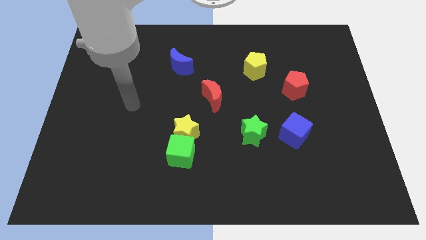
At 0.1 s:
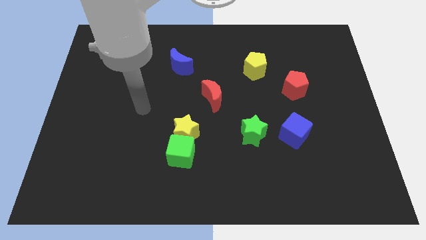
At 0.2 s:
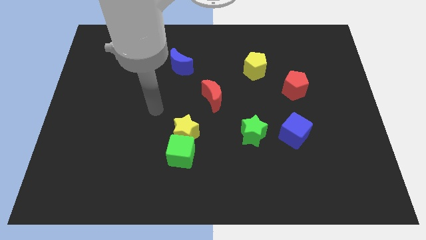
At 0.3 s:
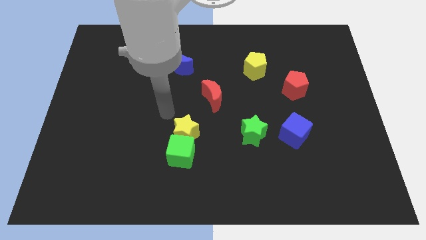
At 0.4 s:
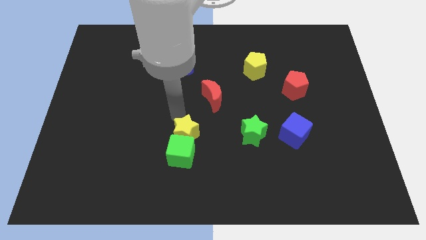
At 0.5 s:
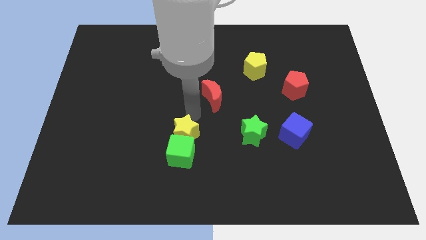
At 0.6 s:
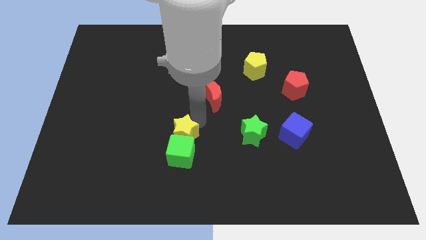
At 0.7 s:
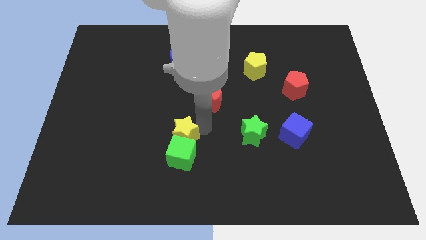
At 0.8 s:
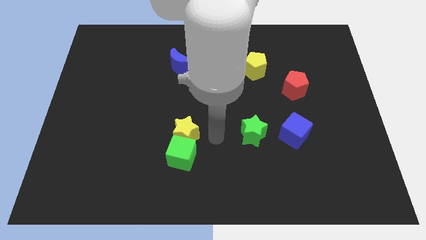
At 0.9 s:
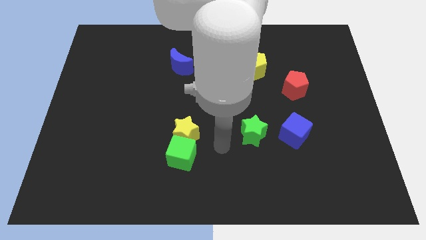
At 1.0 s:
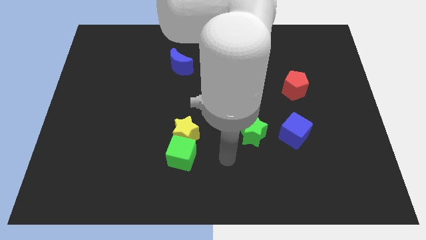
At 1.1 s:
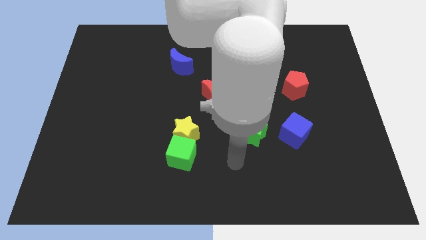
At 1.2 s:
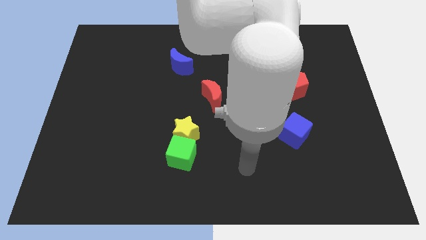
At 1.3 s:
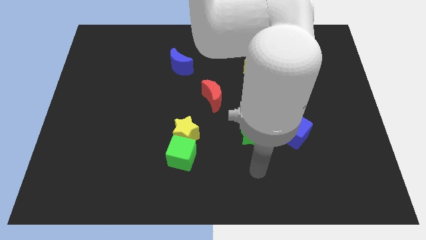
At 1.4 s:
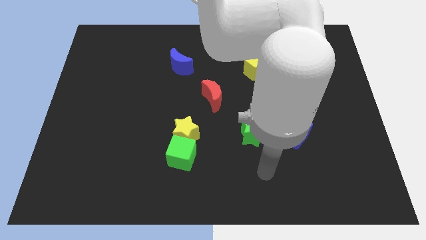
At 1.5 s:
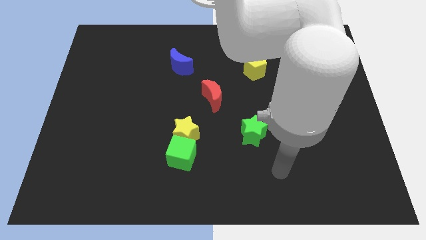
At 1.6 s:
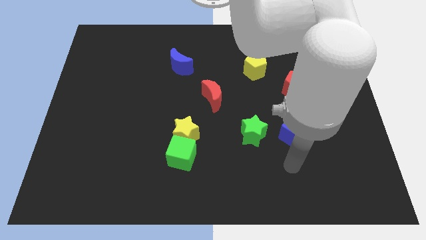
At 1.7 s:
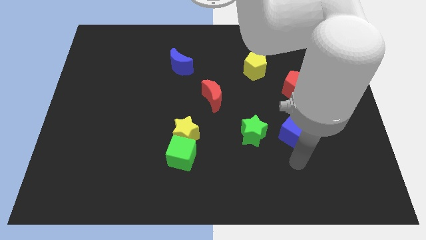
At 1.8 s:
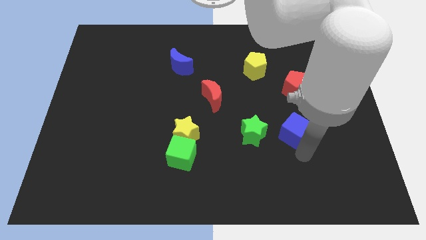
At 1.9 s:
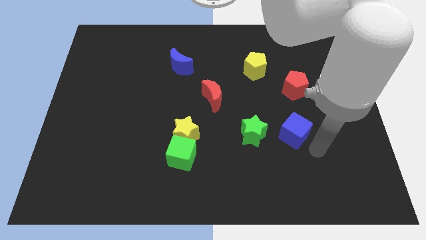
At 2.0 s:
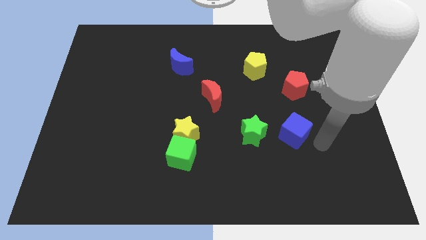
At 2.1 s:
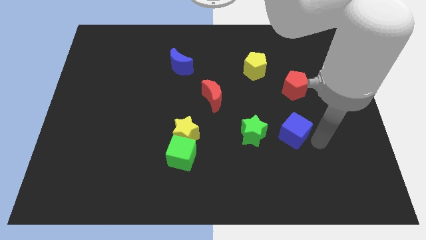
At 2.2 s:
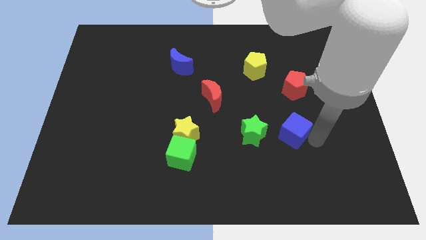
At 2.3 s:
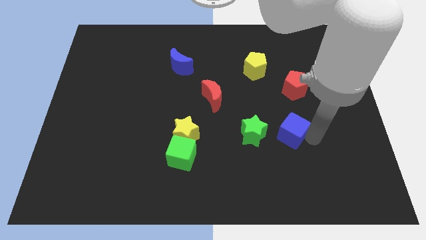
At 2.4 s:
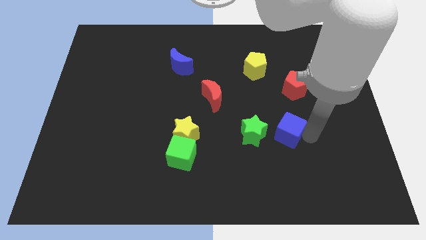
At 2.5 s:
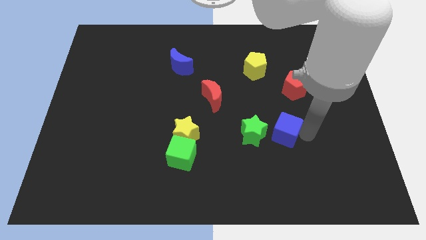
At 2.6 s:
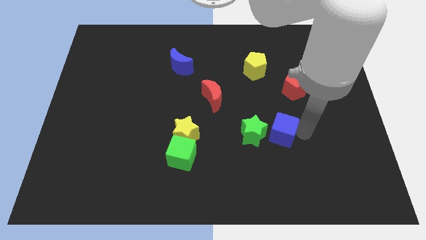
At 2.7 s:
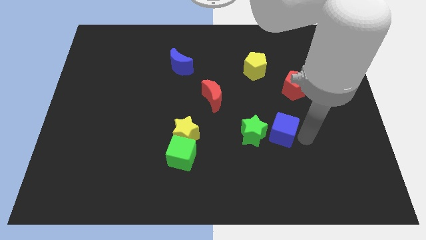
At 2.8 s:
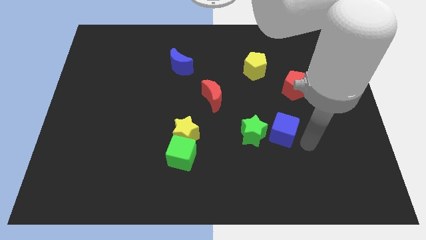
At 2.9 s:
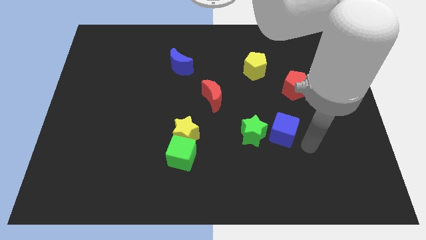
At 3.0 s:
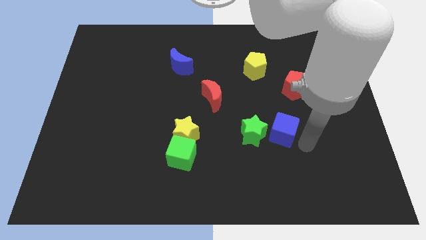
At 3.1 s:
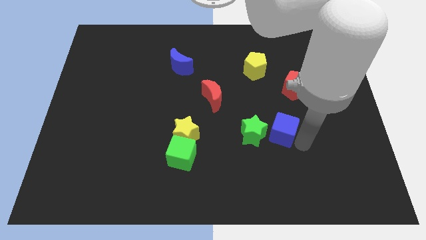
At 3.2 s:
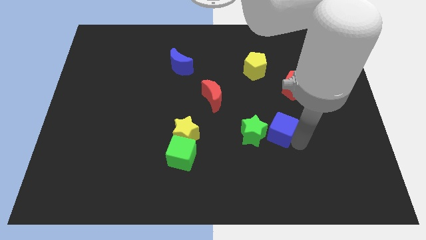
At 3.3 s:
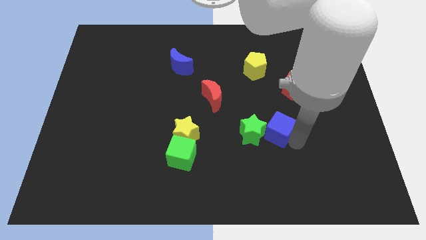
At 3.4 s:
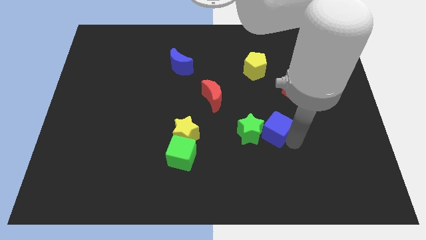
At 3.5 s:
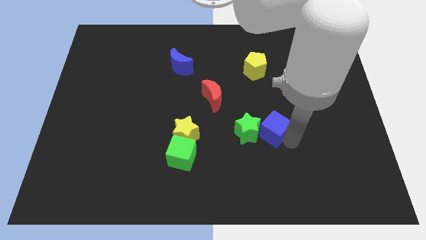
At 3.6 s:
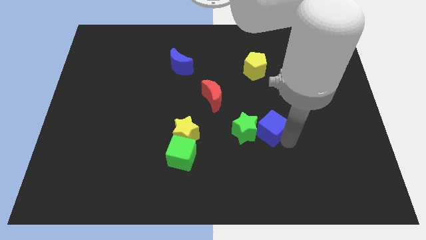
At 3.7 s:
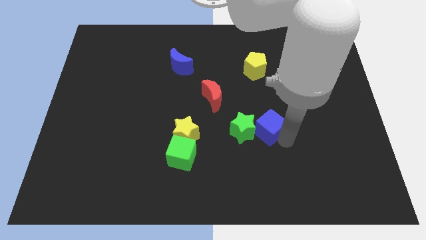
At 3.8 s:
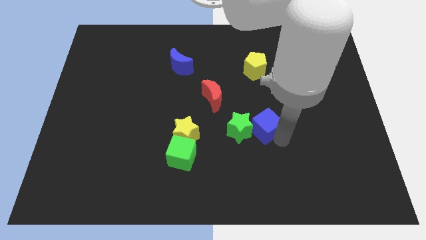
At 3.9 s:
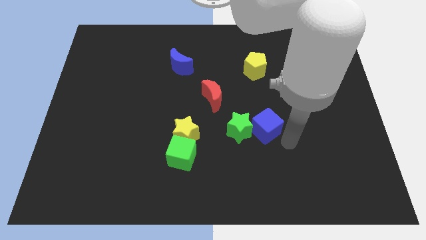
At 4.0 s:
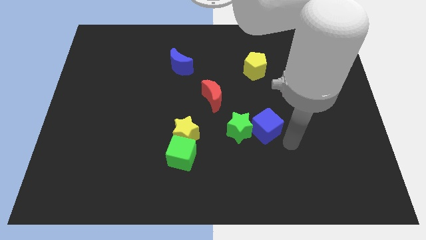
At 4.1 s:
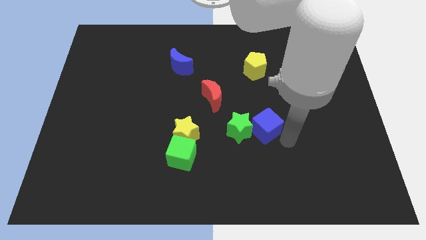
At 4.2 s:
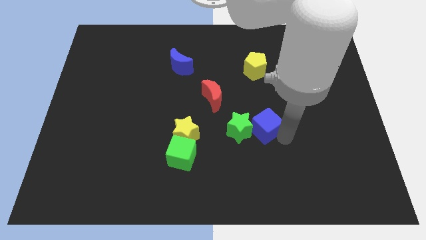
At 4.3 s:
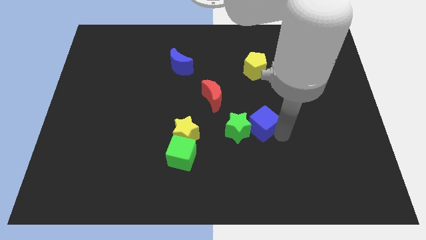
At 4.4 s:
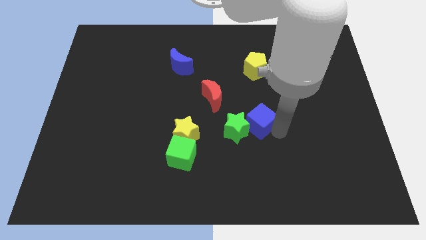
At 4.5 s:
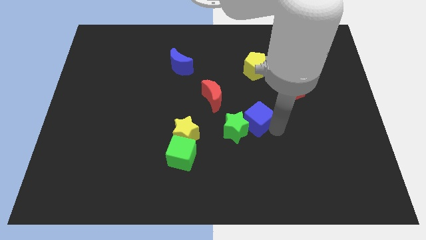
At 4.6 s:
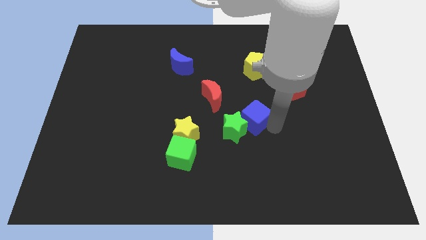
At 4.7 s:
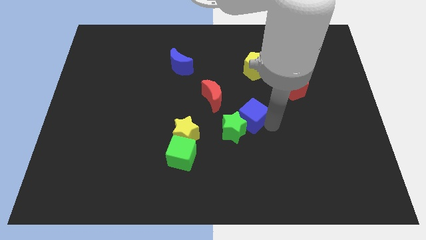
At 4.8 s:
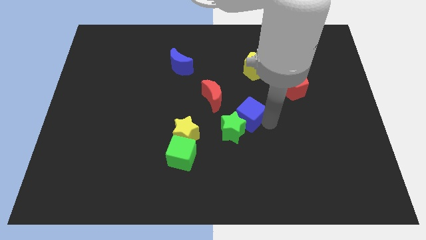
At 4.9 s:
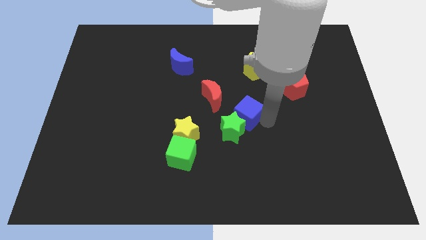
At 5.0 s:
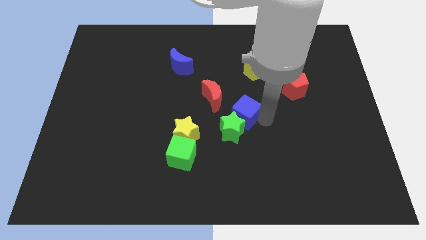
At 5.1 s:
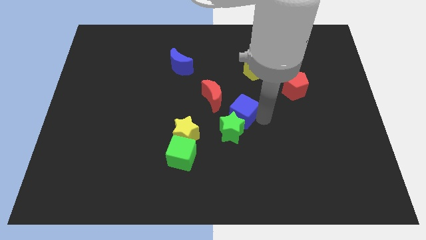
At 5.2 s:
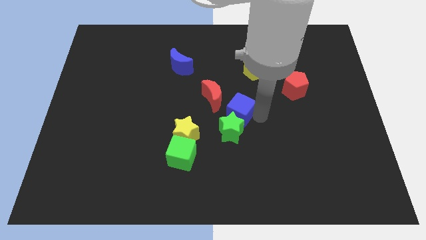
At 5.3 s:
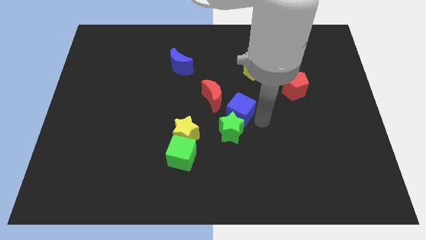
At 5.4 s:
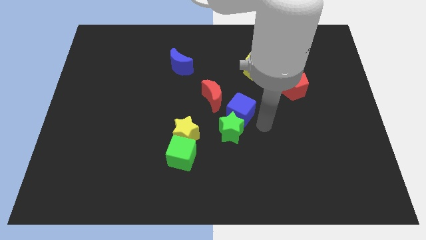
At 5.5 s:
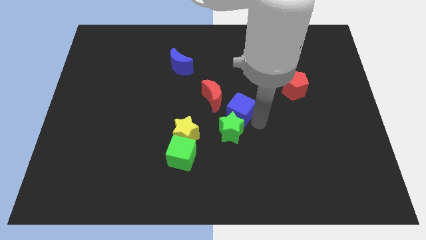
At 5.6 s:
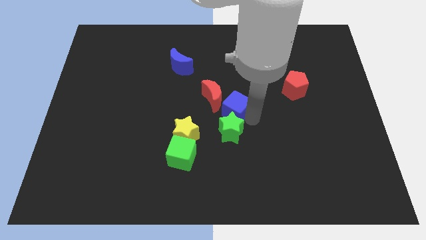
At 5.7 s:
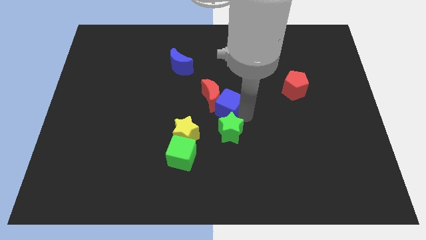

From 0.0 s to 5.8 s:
move the blue cube close to the red moon
